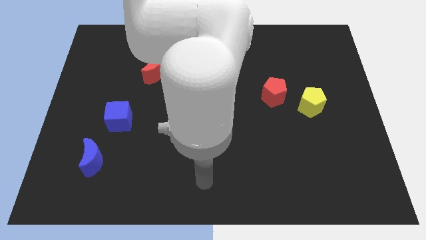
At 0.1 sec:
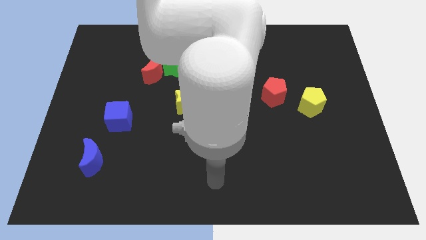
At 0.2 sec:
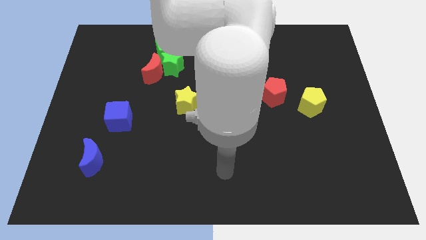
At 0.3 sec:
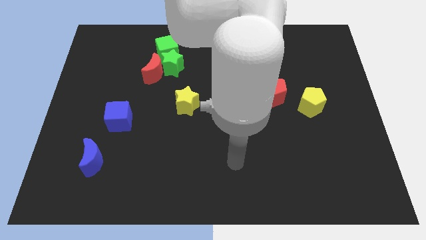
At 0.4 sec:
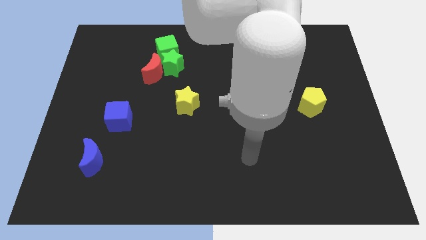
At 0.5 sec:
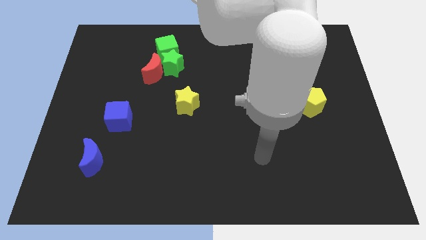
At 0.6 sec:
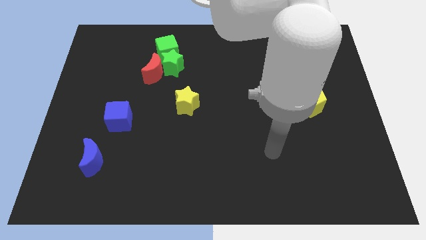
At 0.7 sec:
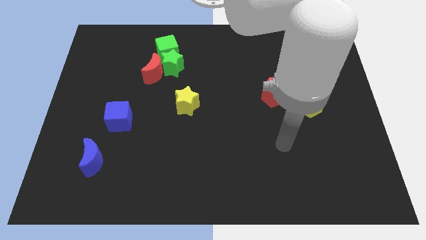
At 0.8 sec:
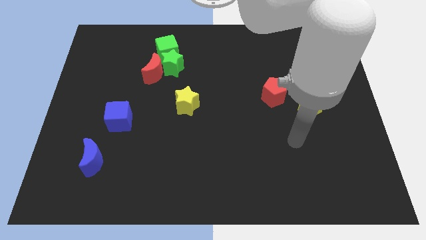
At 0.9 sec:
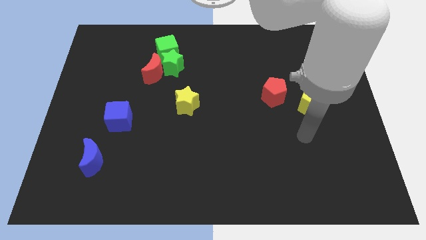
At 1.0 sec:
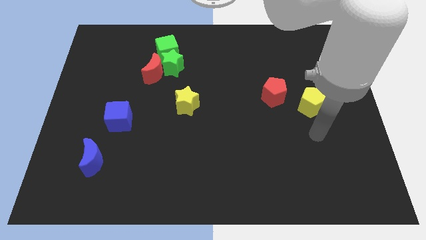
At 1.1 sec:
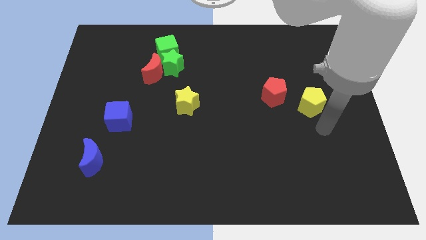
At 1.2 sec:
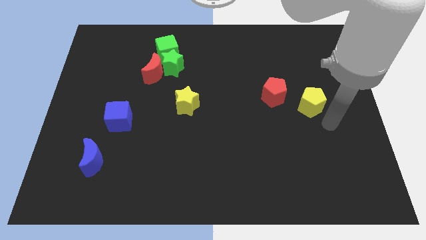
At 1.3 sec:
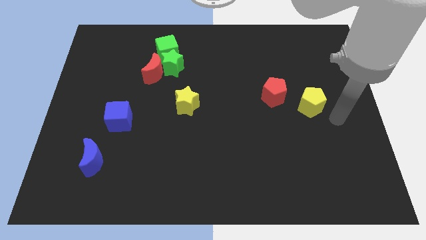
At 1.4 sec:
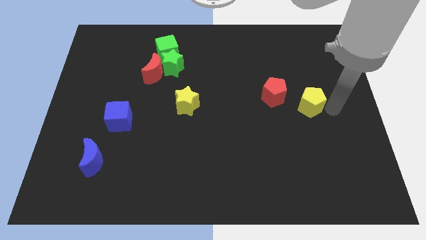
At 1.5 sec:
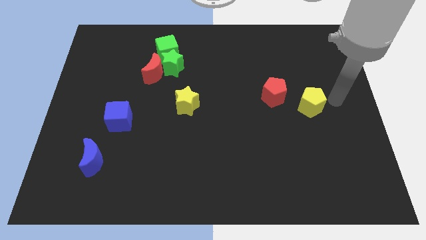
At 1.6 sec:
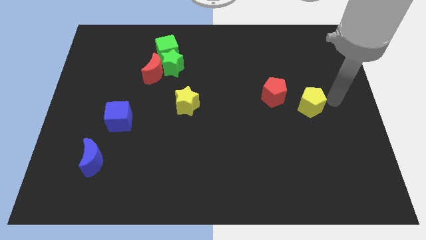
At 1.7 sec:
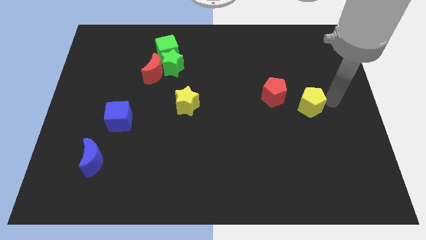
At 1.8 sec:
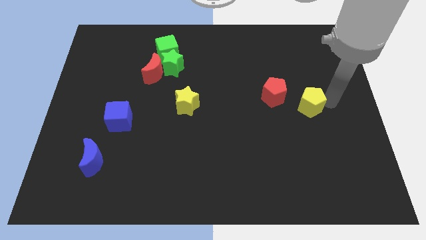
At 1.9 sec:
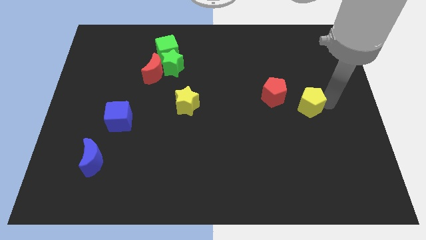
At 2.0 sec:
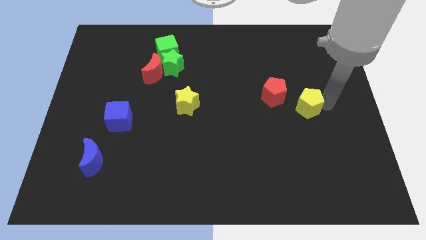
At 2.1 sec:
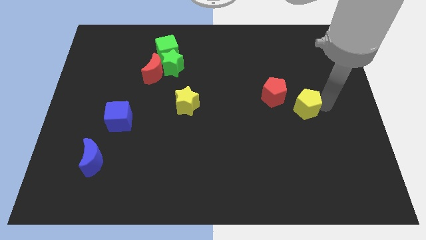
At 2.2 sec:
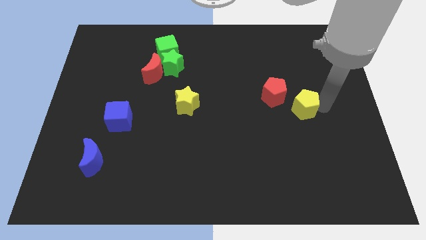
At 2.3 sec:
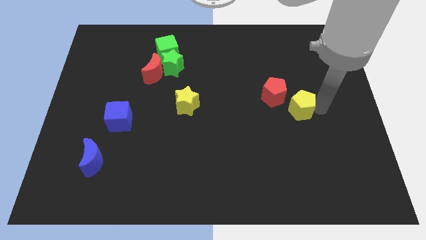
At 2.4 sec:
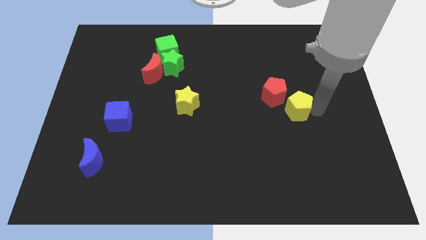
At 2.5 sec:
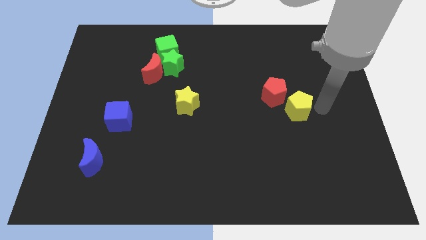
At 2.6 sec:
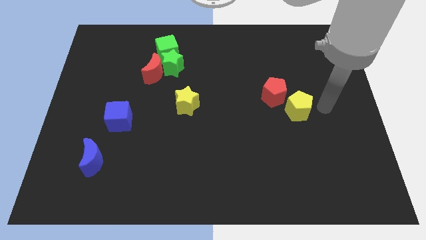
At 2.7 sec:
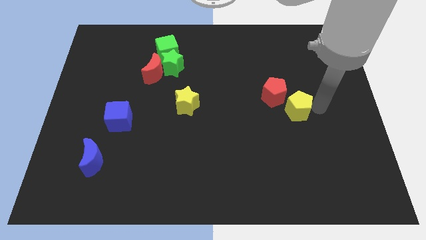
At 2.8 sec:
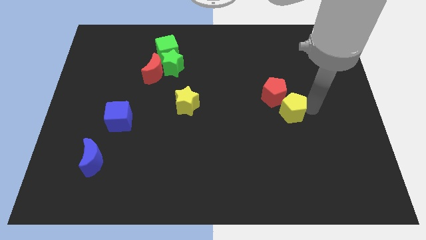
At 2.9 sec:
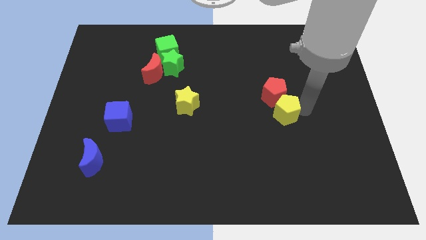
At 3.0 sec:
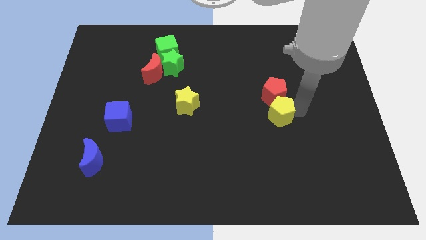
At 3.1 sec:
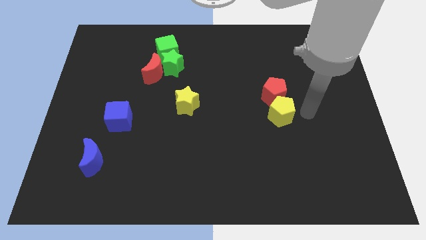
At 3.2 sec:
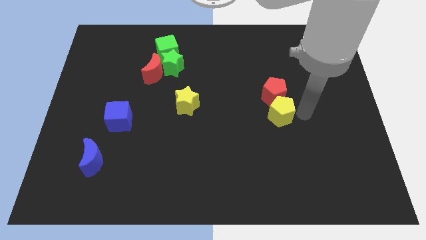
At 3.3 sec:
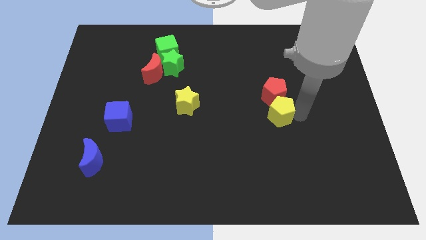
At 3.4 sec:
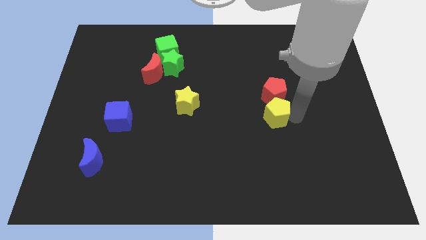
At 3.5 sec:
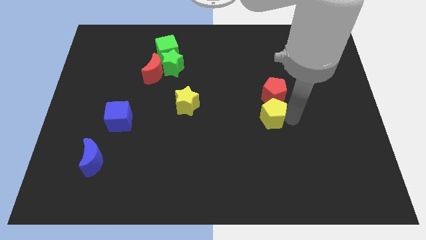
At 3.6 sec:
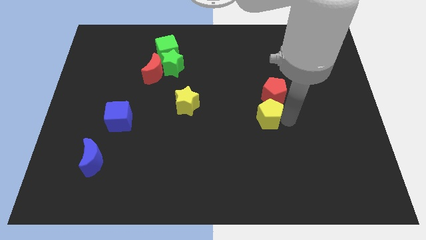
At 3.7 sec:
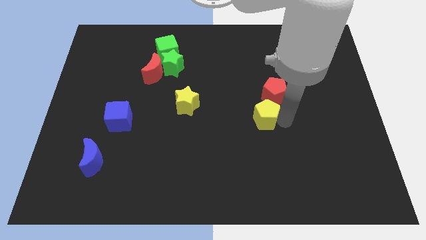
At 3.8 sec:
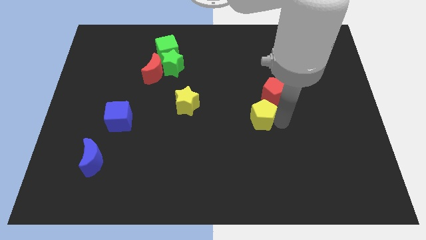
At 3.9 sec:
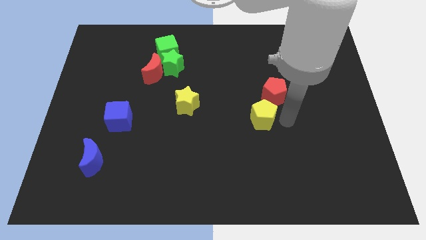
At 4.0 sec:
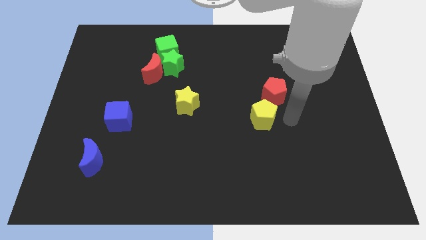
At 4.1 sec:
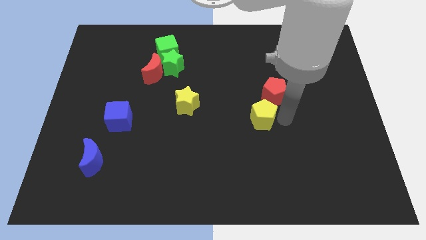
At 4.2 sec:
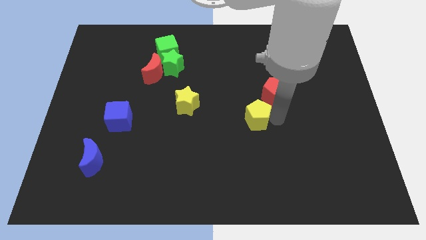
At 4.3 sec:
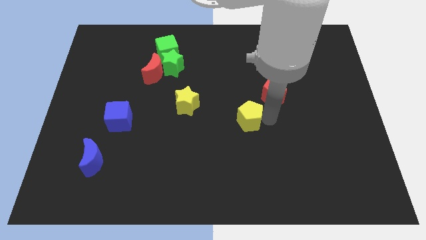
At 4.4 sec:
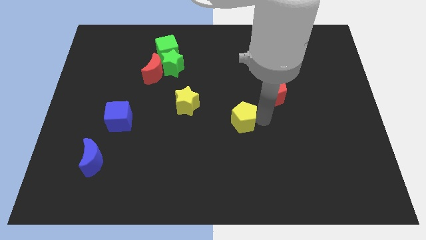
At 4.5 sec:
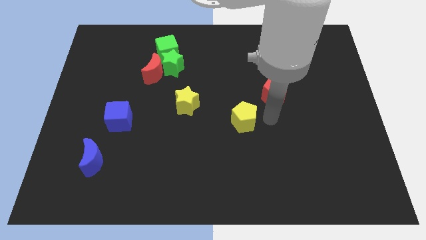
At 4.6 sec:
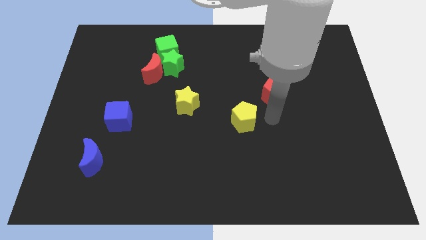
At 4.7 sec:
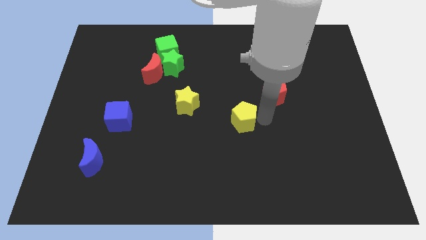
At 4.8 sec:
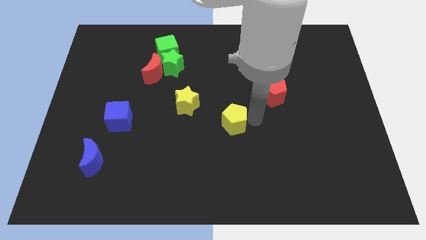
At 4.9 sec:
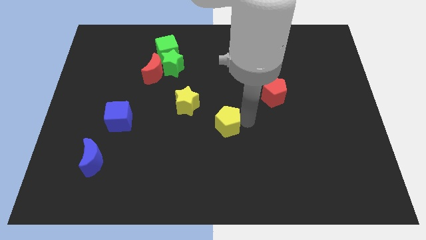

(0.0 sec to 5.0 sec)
slide the yellow pentagon diagonally down and to the right of the yellow star

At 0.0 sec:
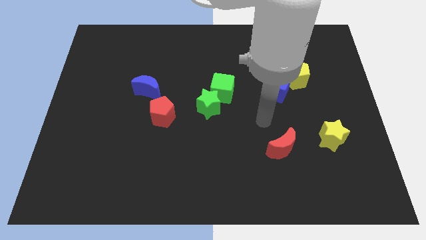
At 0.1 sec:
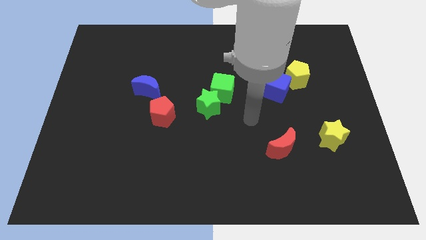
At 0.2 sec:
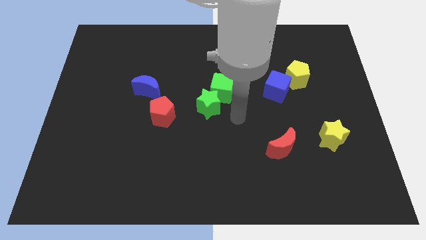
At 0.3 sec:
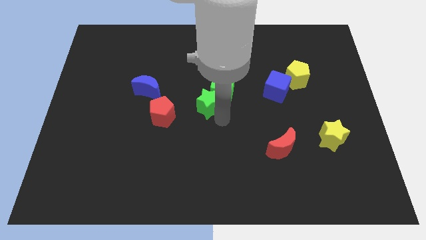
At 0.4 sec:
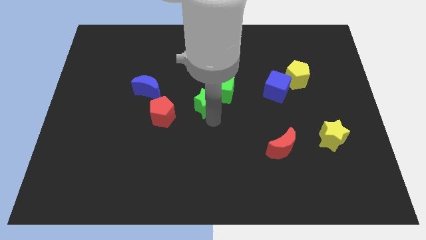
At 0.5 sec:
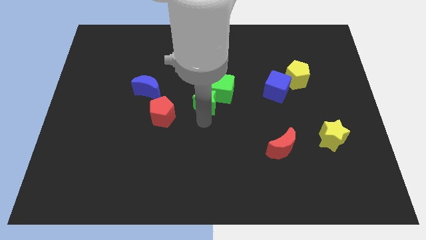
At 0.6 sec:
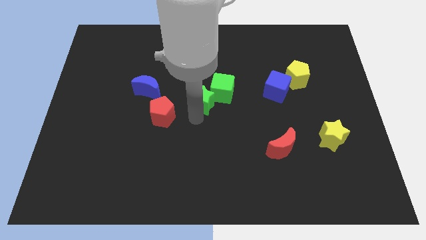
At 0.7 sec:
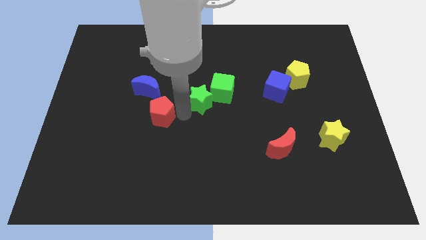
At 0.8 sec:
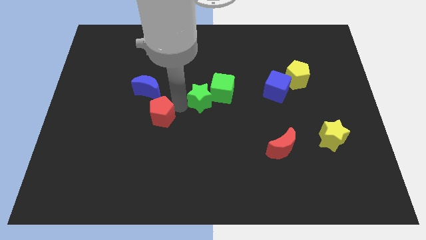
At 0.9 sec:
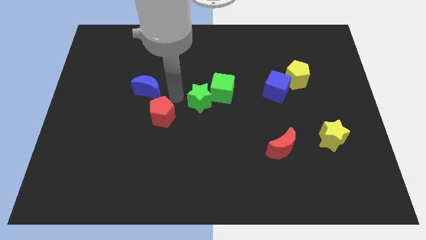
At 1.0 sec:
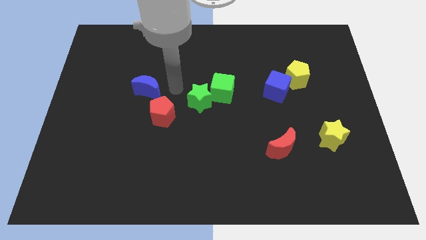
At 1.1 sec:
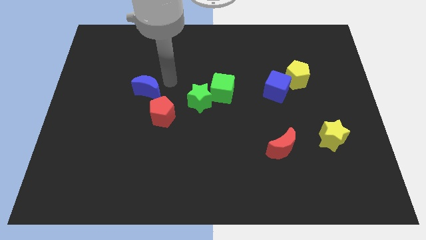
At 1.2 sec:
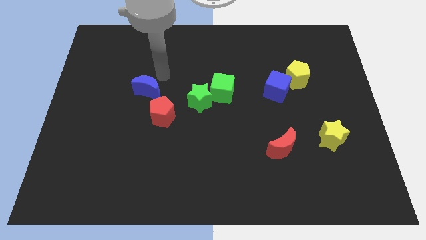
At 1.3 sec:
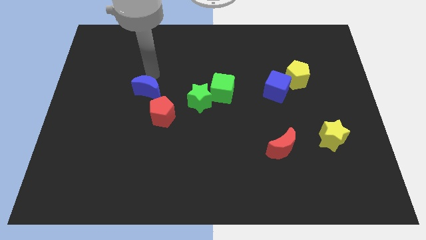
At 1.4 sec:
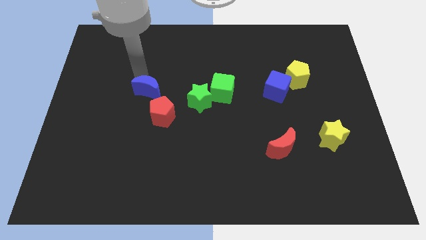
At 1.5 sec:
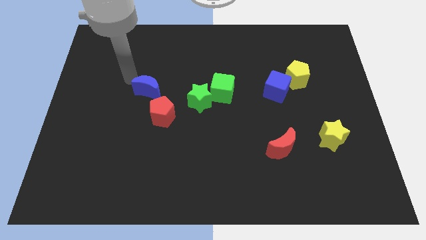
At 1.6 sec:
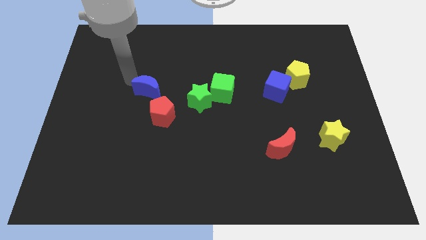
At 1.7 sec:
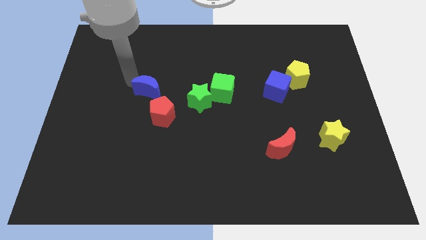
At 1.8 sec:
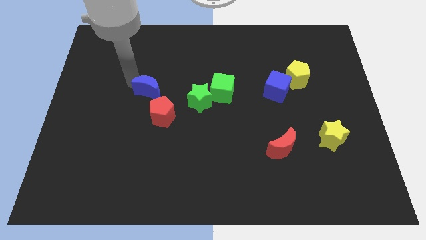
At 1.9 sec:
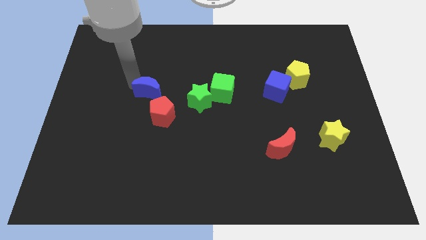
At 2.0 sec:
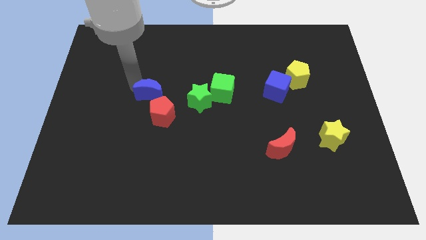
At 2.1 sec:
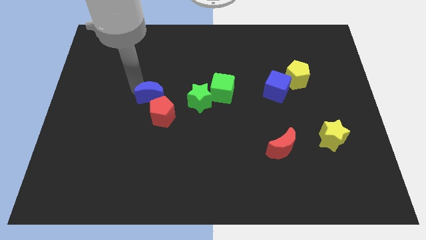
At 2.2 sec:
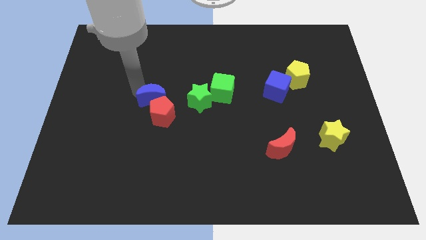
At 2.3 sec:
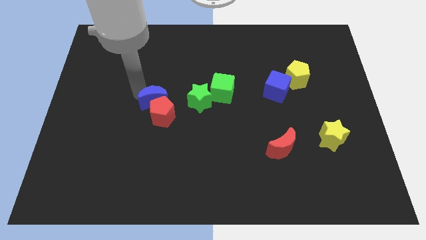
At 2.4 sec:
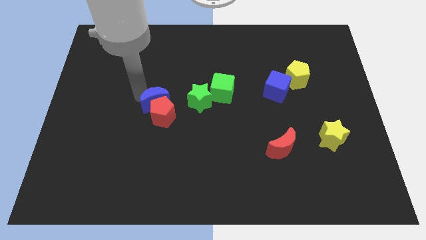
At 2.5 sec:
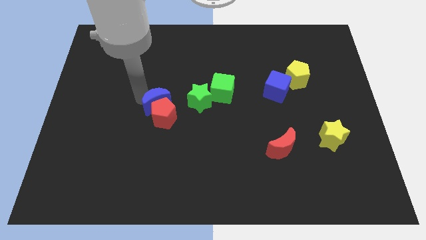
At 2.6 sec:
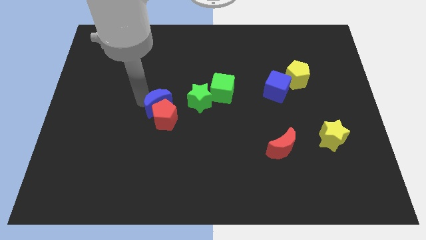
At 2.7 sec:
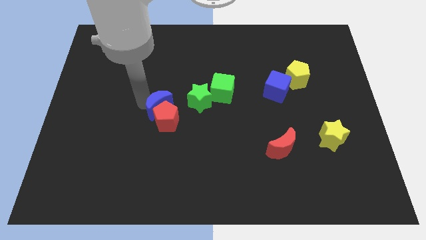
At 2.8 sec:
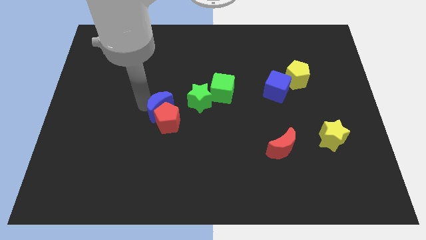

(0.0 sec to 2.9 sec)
put the blue moon diagonally down and to the left of the green star
